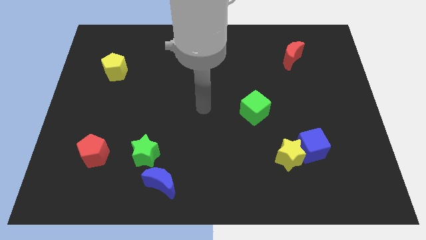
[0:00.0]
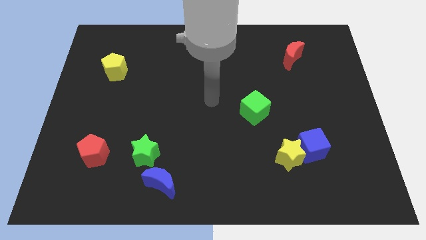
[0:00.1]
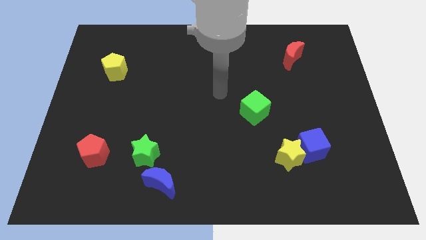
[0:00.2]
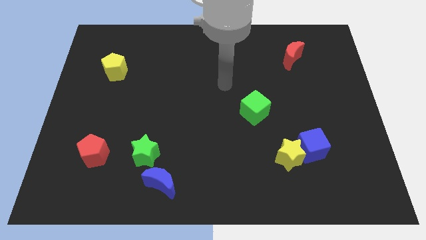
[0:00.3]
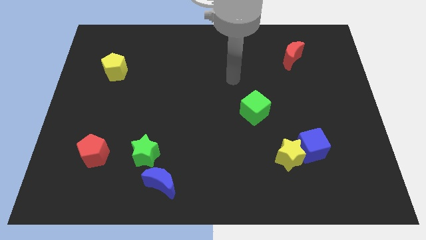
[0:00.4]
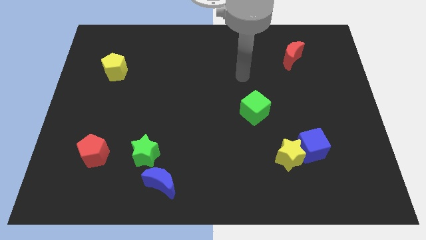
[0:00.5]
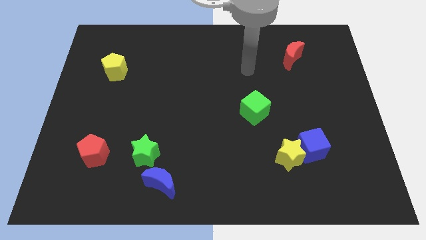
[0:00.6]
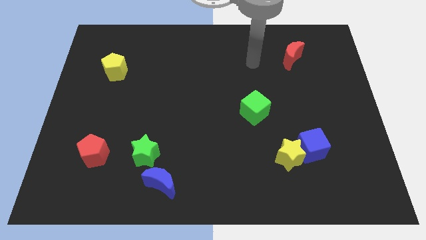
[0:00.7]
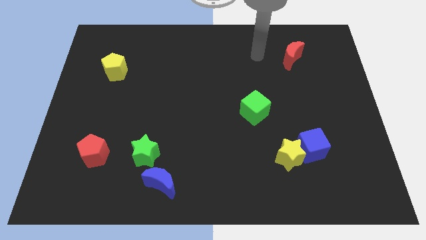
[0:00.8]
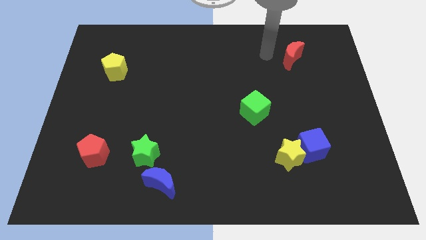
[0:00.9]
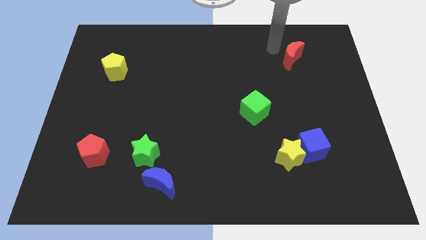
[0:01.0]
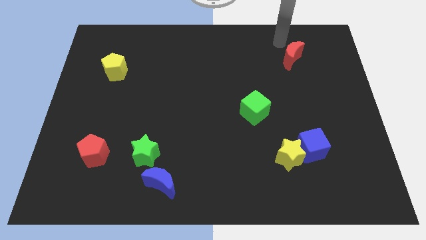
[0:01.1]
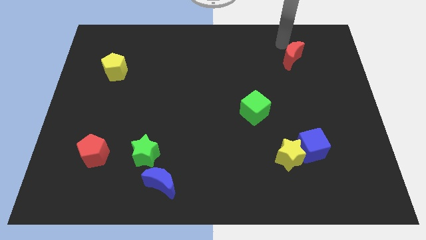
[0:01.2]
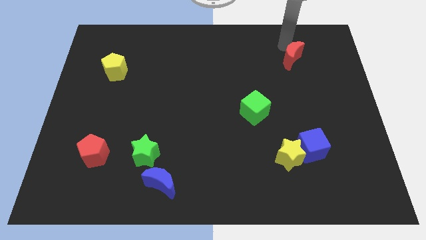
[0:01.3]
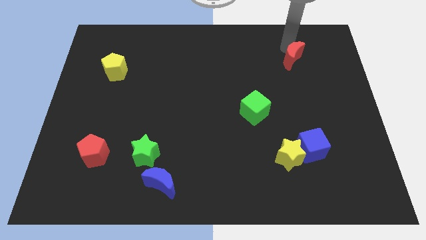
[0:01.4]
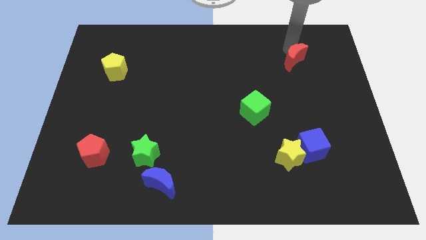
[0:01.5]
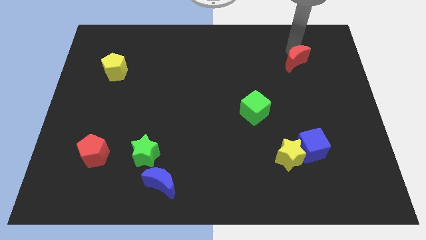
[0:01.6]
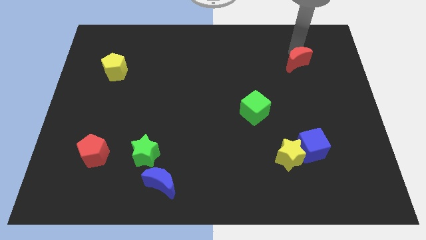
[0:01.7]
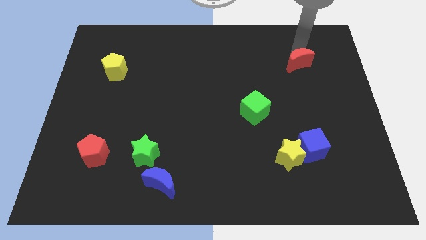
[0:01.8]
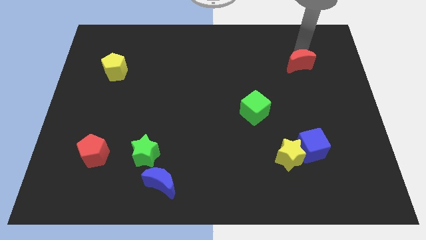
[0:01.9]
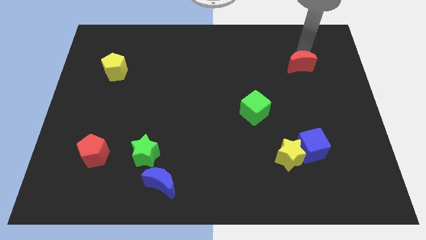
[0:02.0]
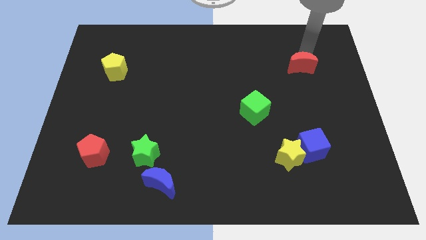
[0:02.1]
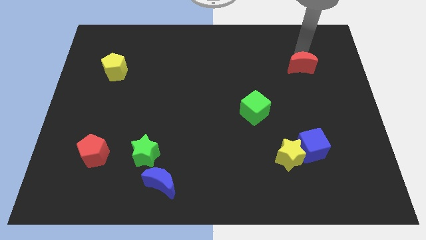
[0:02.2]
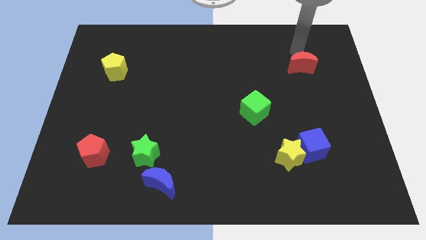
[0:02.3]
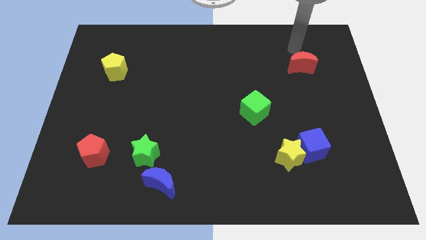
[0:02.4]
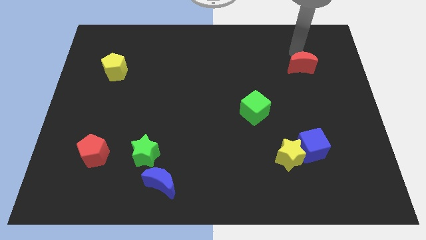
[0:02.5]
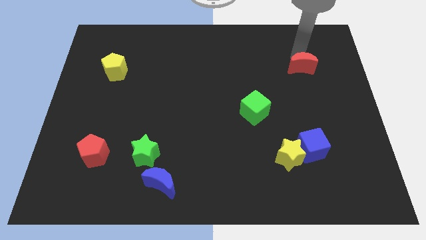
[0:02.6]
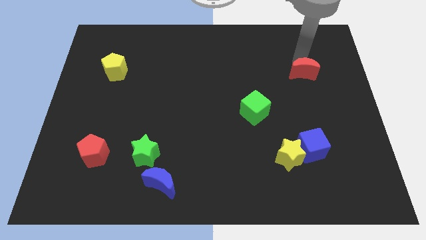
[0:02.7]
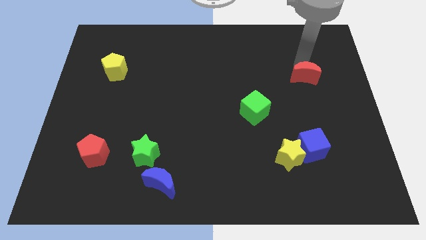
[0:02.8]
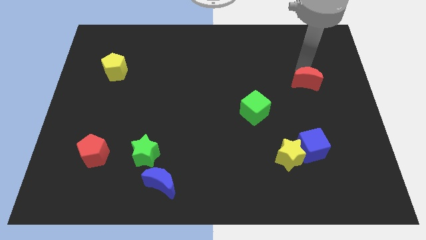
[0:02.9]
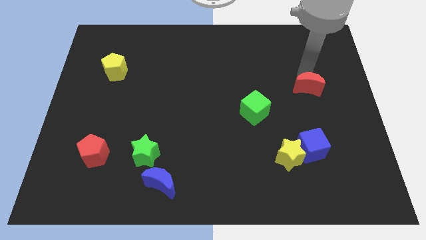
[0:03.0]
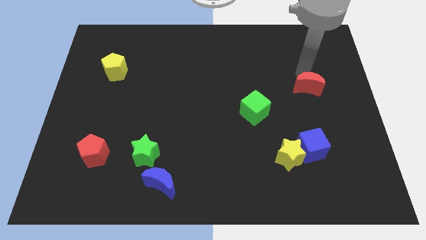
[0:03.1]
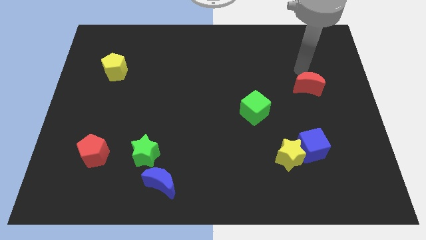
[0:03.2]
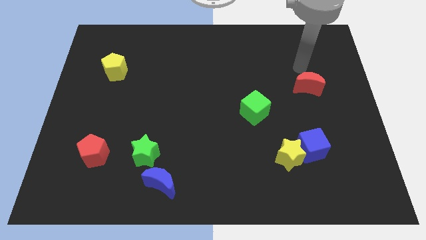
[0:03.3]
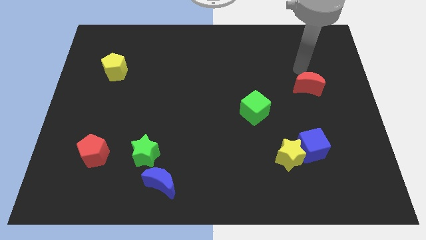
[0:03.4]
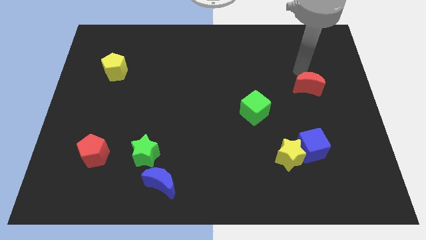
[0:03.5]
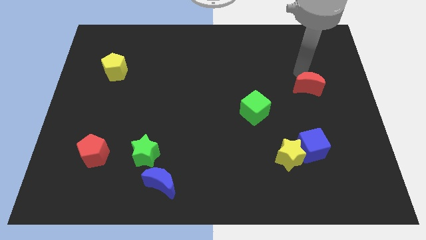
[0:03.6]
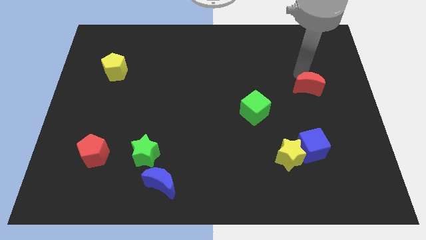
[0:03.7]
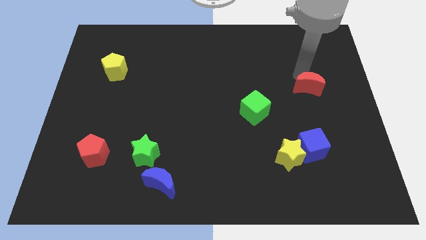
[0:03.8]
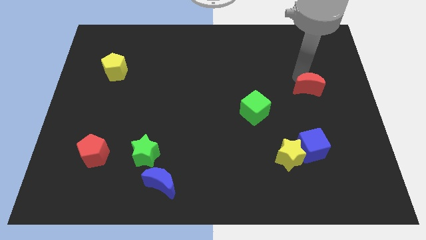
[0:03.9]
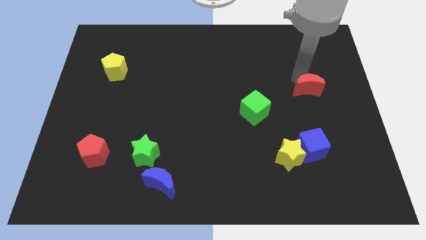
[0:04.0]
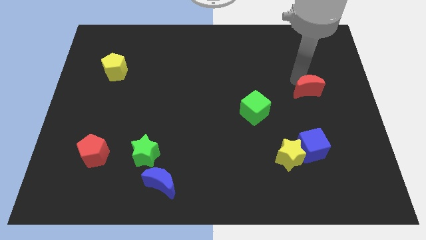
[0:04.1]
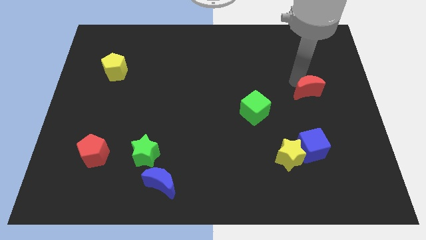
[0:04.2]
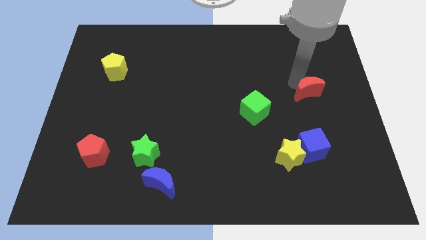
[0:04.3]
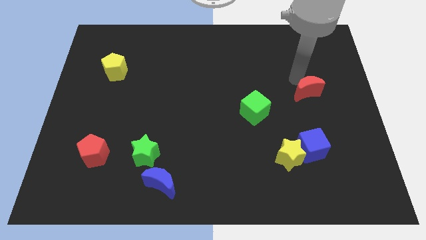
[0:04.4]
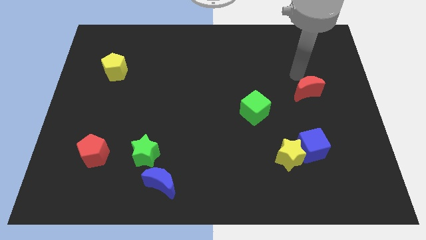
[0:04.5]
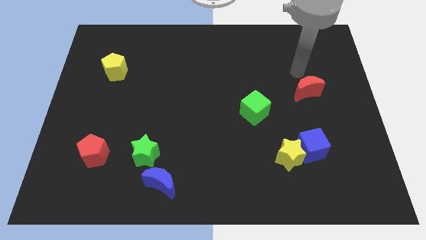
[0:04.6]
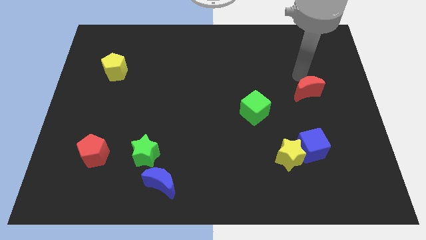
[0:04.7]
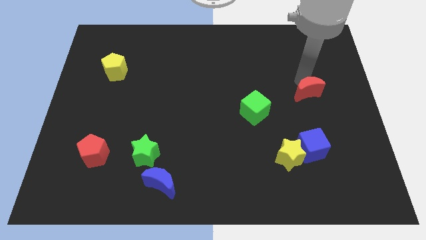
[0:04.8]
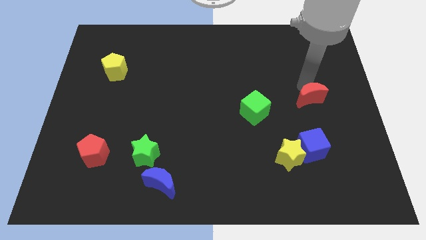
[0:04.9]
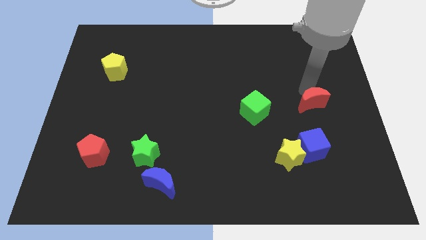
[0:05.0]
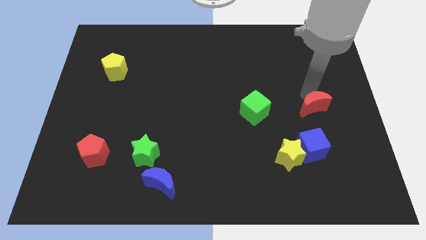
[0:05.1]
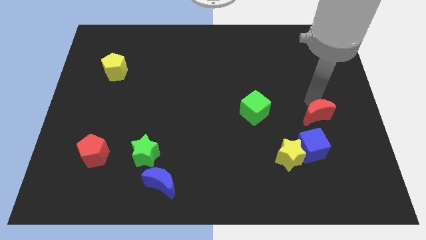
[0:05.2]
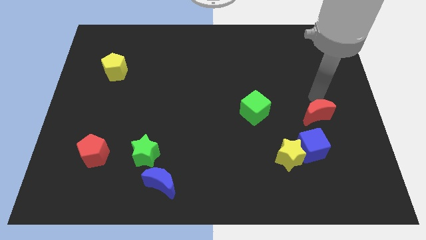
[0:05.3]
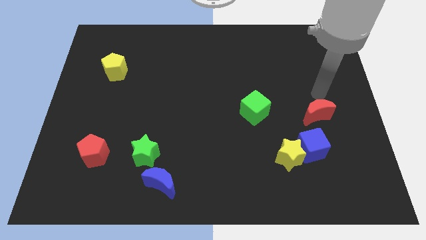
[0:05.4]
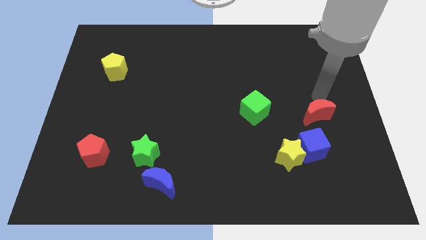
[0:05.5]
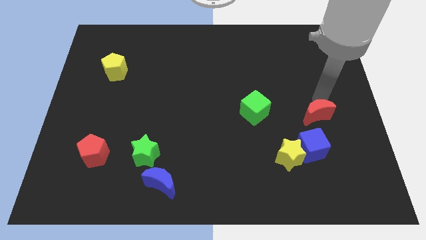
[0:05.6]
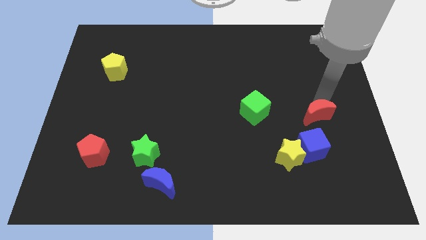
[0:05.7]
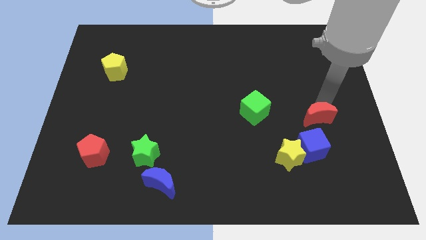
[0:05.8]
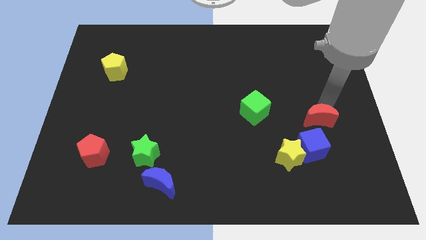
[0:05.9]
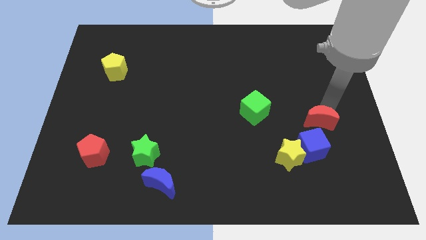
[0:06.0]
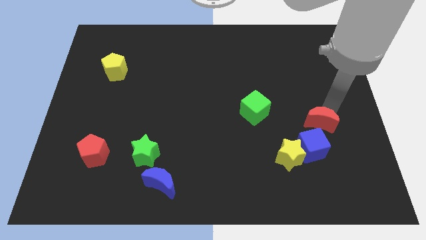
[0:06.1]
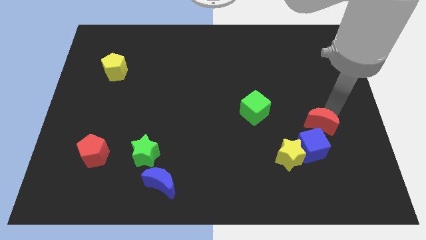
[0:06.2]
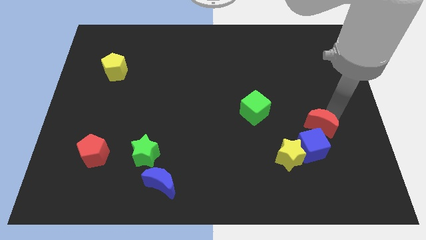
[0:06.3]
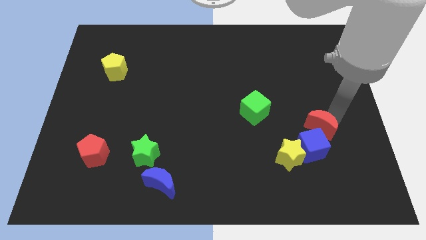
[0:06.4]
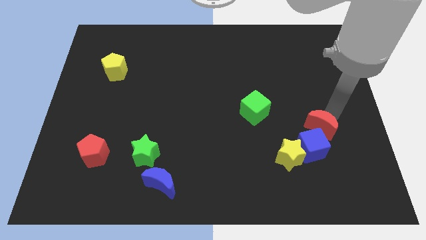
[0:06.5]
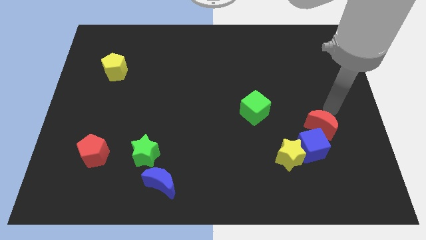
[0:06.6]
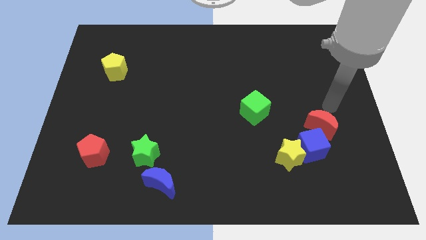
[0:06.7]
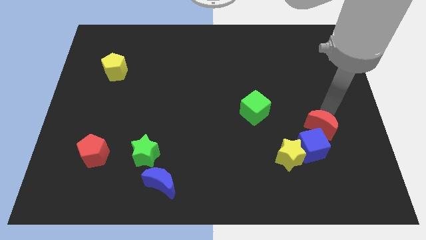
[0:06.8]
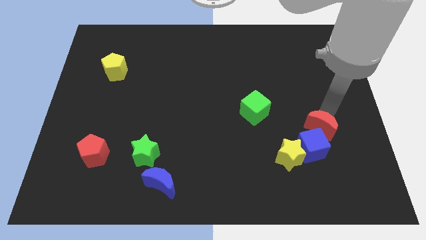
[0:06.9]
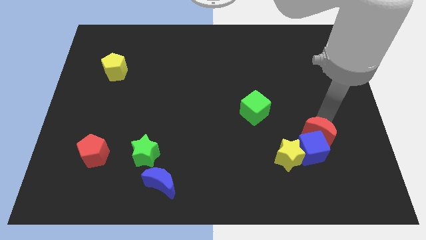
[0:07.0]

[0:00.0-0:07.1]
slide the red moon to the blue cube

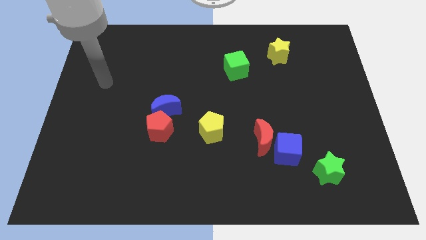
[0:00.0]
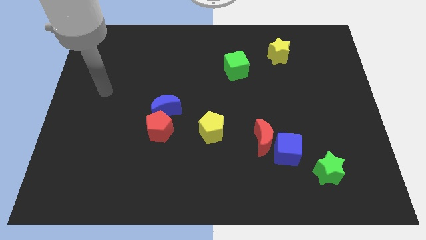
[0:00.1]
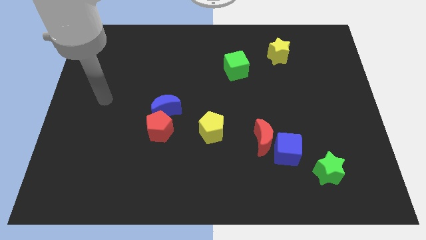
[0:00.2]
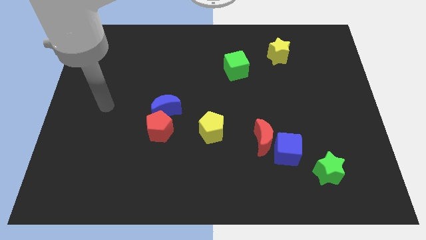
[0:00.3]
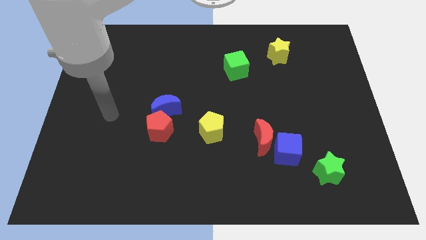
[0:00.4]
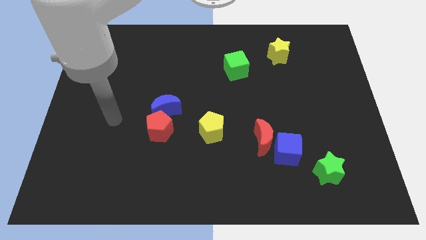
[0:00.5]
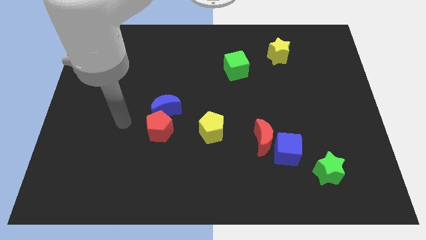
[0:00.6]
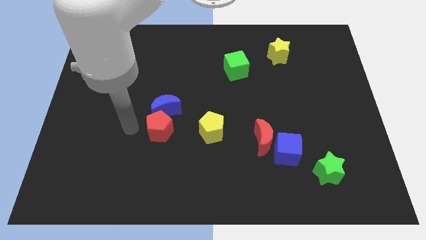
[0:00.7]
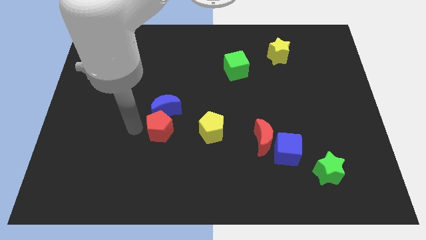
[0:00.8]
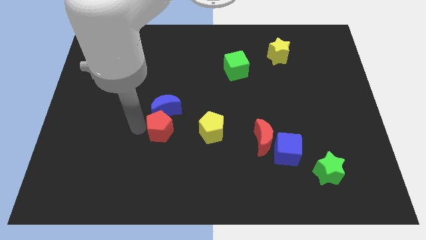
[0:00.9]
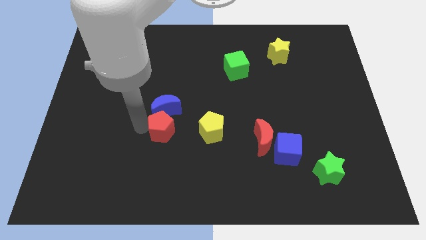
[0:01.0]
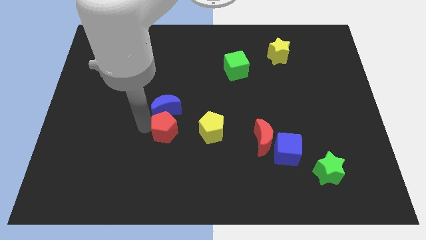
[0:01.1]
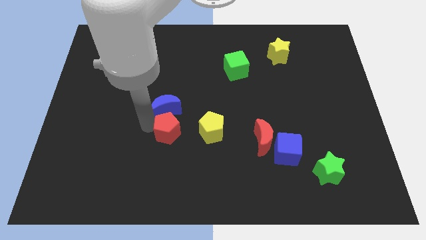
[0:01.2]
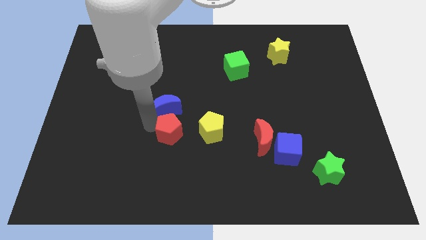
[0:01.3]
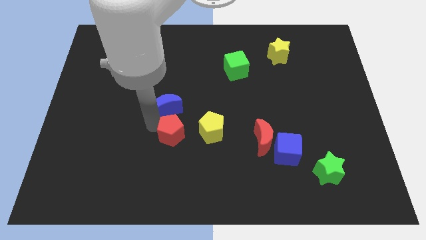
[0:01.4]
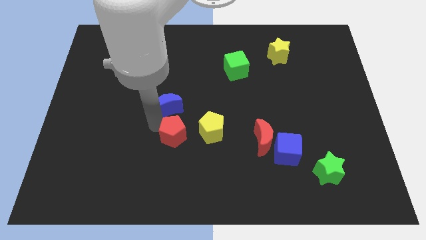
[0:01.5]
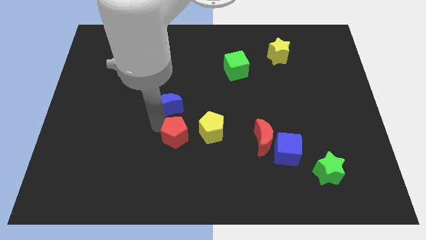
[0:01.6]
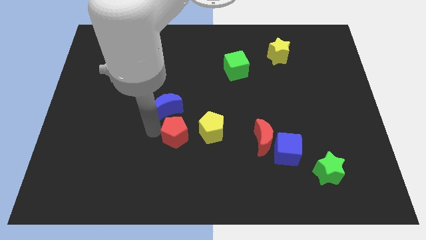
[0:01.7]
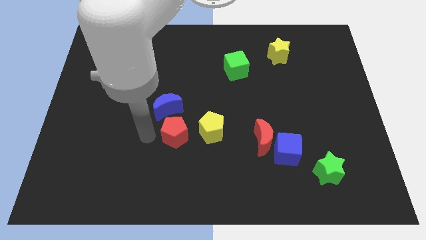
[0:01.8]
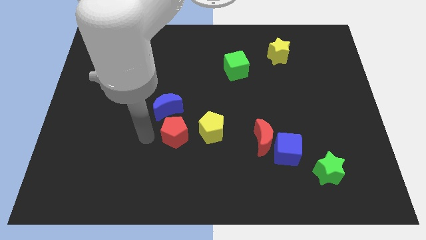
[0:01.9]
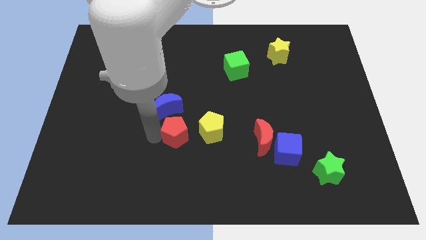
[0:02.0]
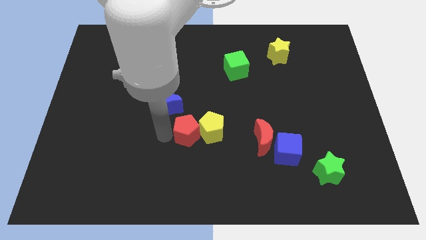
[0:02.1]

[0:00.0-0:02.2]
move the red pentagon towards the yellow pentagon
